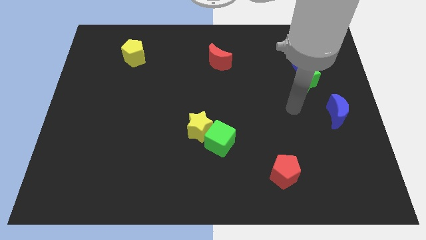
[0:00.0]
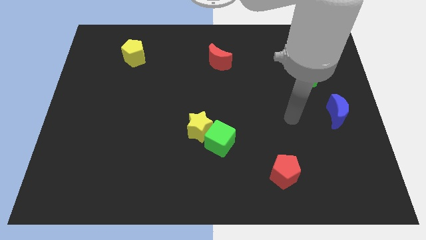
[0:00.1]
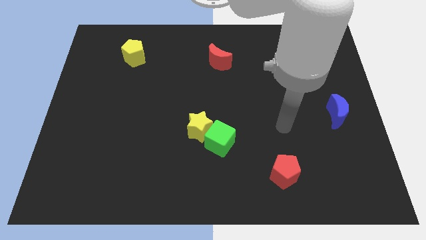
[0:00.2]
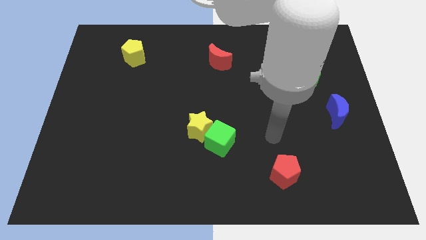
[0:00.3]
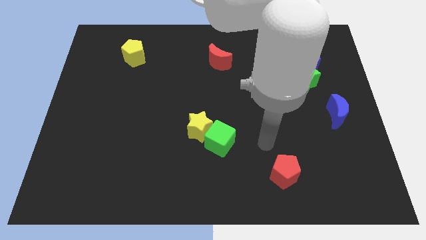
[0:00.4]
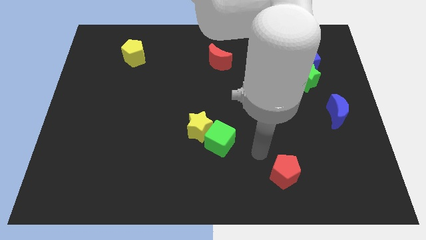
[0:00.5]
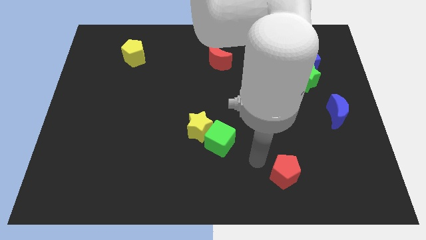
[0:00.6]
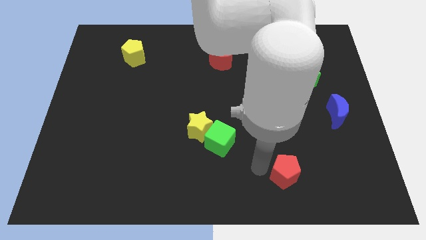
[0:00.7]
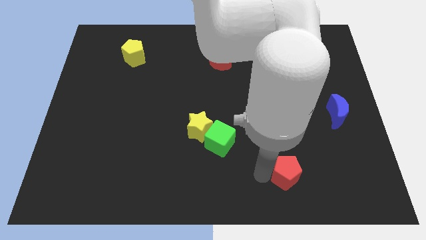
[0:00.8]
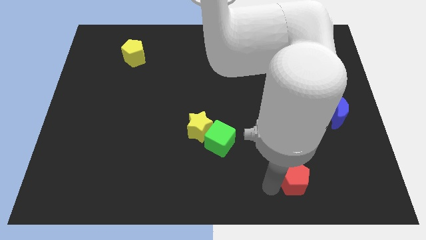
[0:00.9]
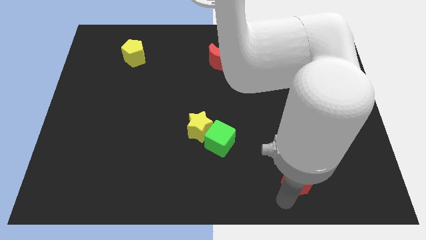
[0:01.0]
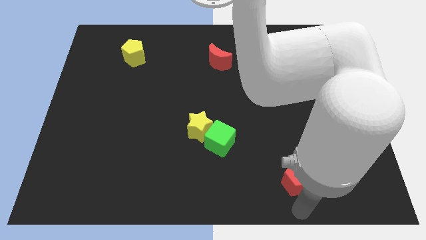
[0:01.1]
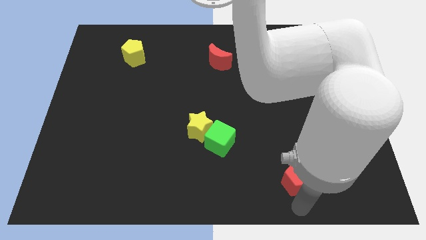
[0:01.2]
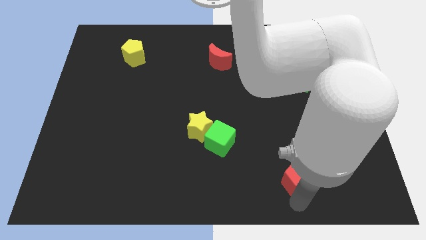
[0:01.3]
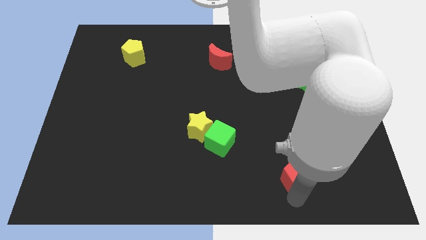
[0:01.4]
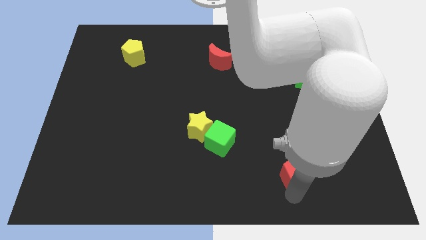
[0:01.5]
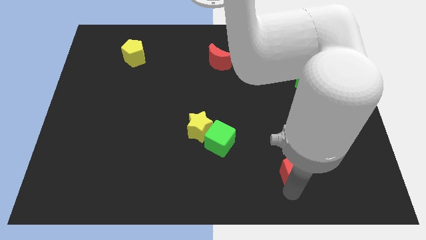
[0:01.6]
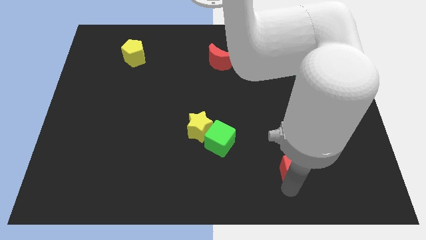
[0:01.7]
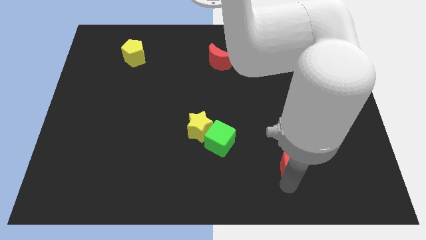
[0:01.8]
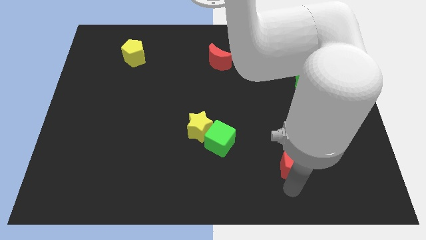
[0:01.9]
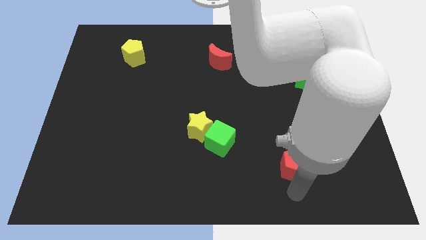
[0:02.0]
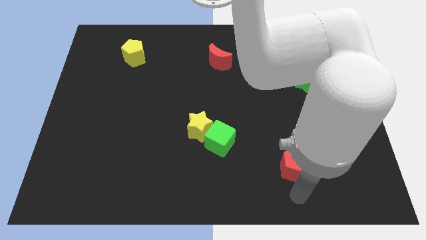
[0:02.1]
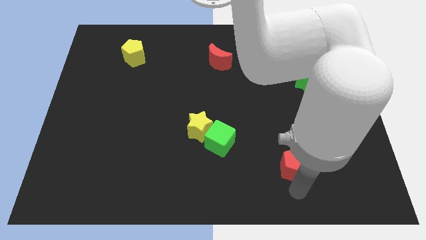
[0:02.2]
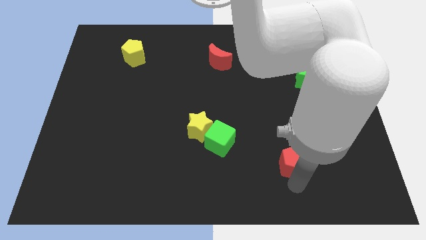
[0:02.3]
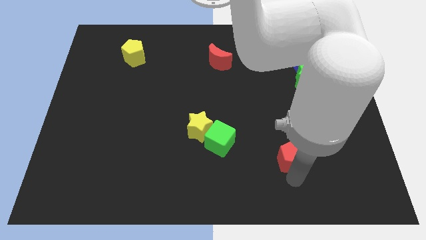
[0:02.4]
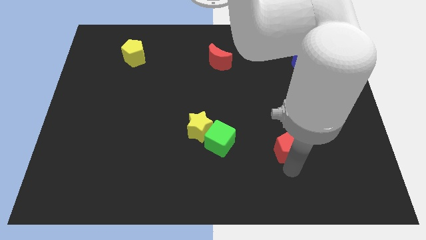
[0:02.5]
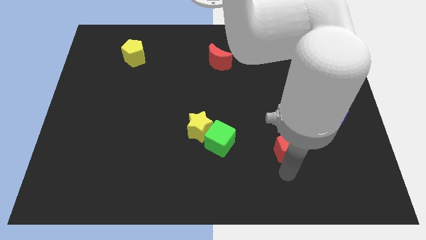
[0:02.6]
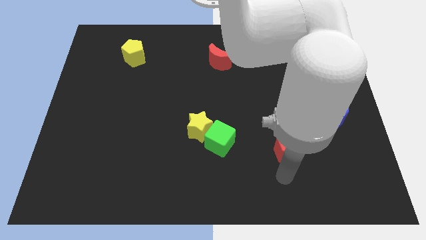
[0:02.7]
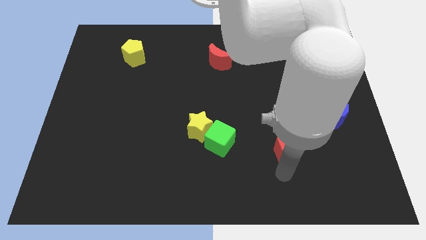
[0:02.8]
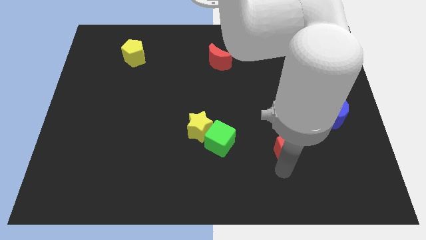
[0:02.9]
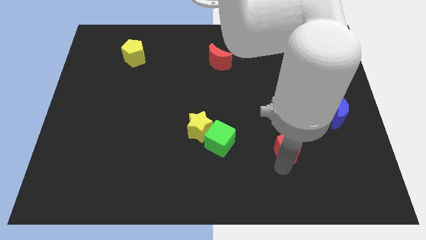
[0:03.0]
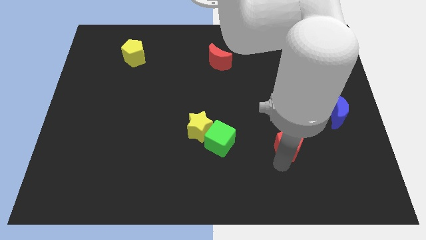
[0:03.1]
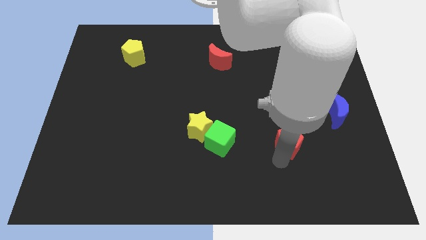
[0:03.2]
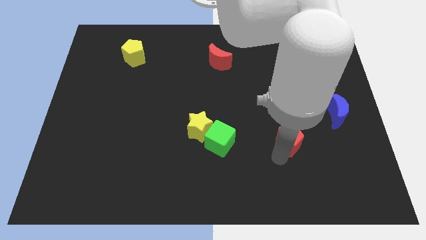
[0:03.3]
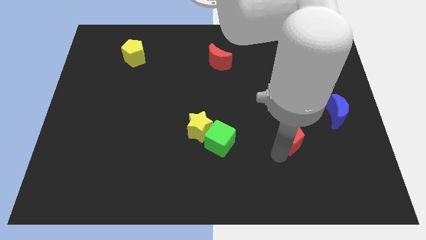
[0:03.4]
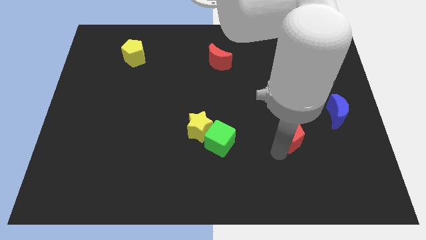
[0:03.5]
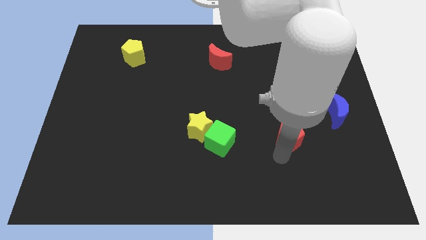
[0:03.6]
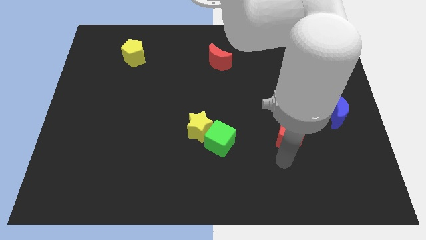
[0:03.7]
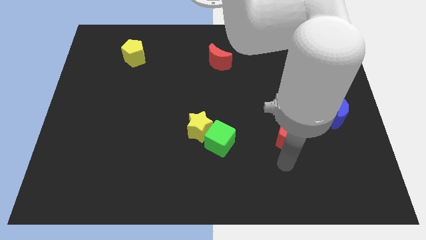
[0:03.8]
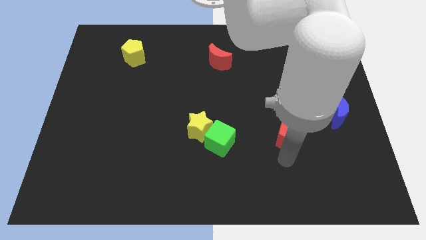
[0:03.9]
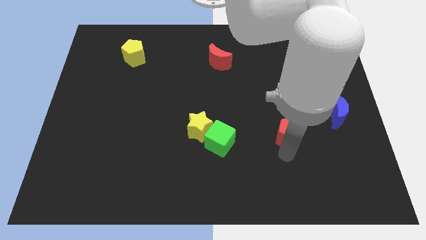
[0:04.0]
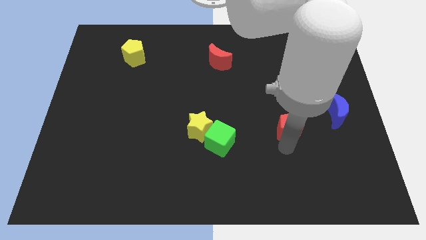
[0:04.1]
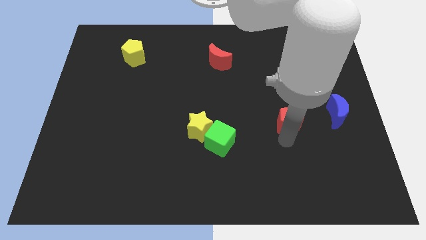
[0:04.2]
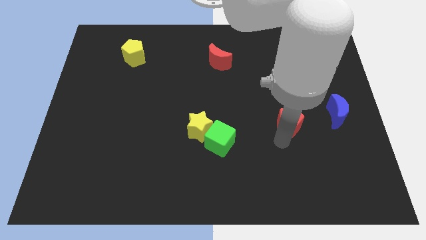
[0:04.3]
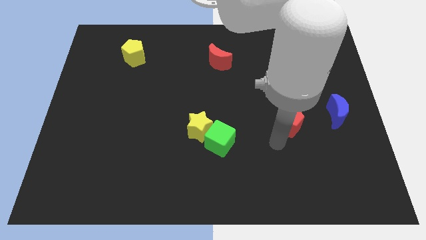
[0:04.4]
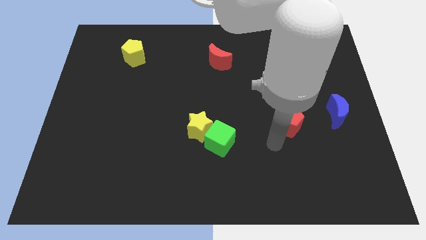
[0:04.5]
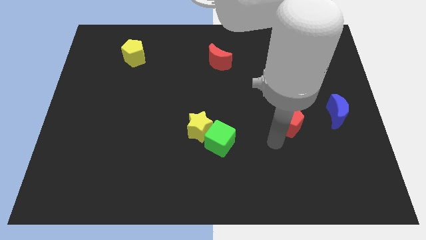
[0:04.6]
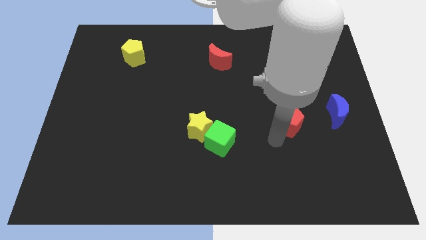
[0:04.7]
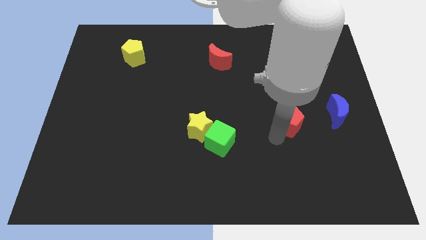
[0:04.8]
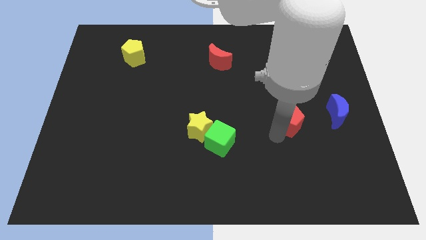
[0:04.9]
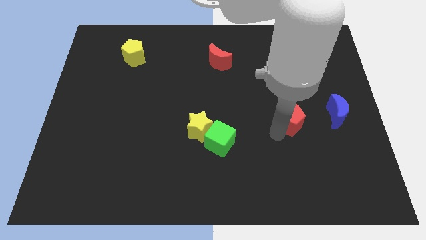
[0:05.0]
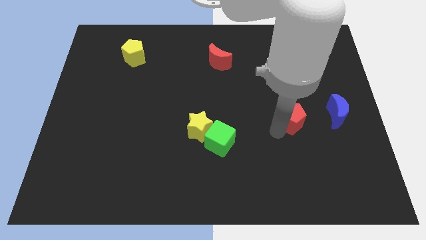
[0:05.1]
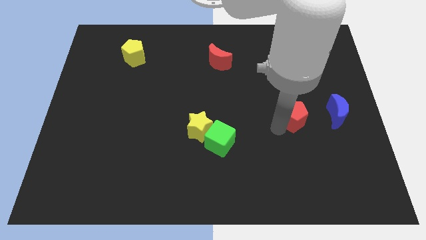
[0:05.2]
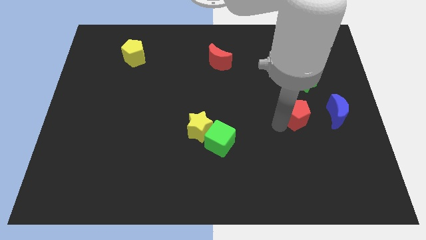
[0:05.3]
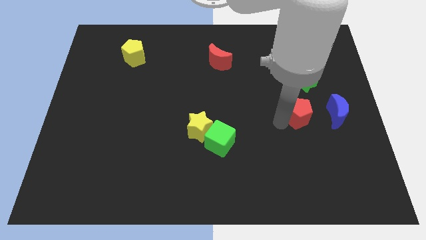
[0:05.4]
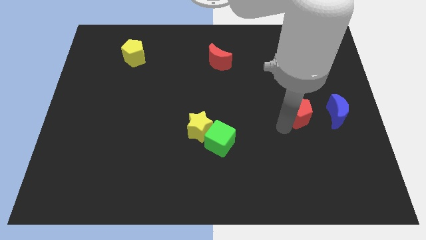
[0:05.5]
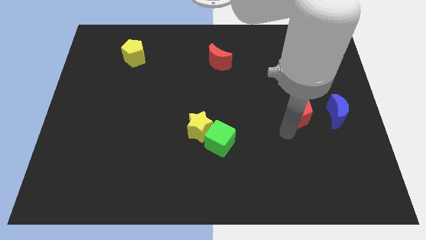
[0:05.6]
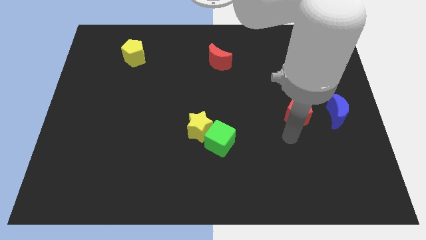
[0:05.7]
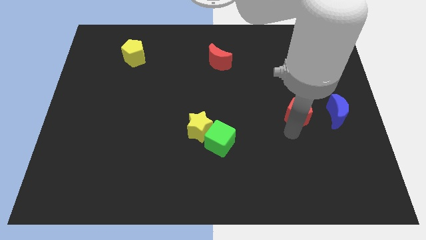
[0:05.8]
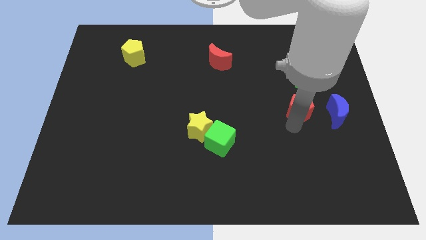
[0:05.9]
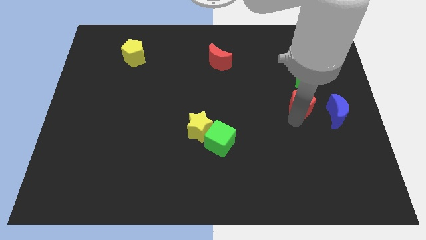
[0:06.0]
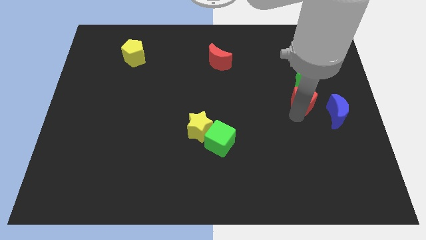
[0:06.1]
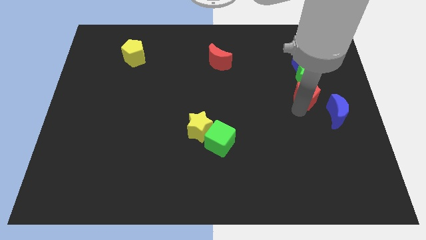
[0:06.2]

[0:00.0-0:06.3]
push the red pentagon close to the green star

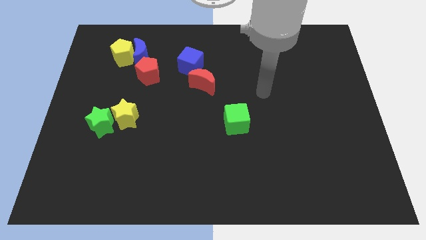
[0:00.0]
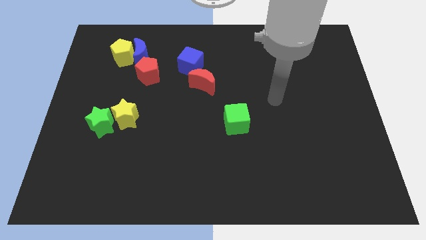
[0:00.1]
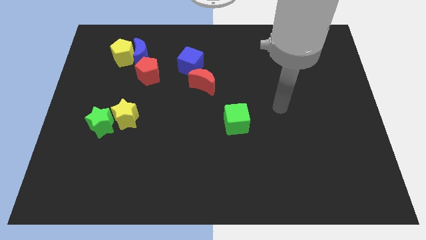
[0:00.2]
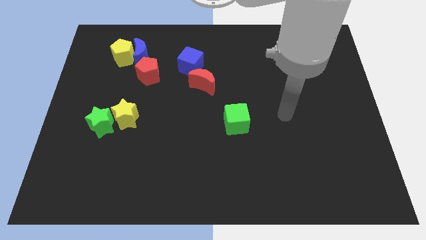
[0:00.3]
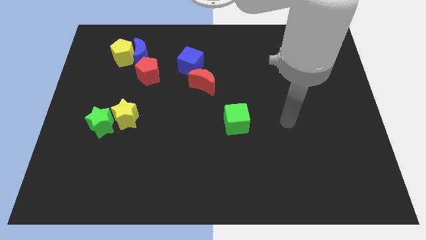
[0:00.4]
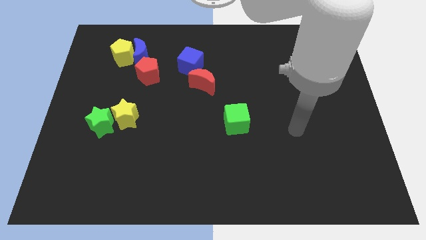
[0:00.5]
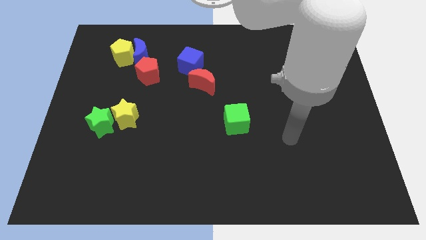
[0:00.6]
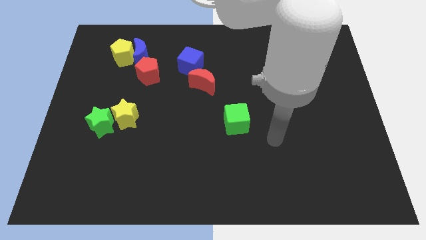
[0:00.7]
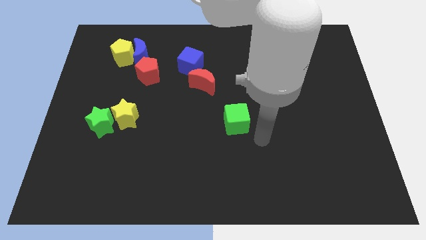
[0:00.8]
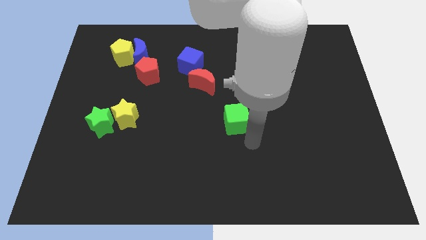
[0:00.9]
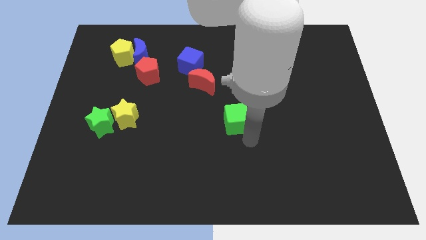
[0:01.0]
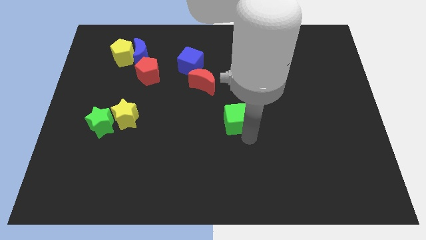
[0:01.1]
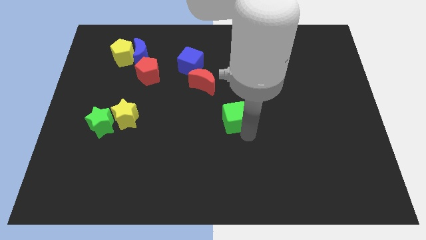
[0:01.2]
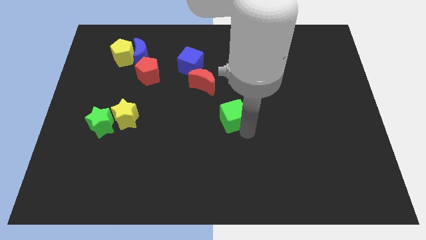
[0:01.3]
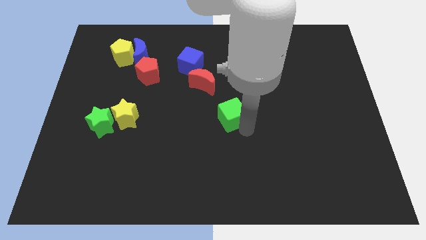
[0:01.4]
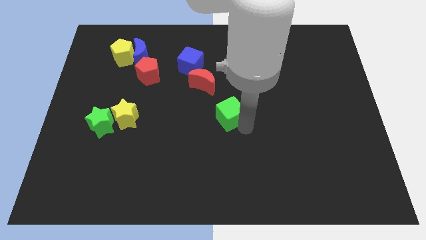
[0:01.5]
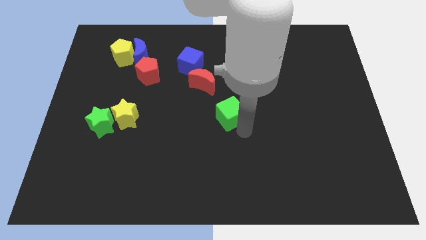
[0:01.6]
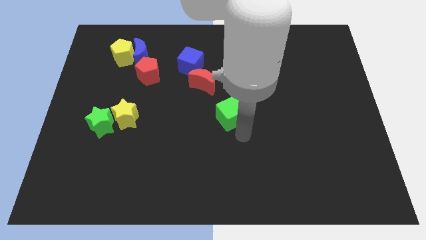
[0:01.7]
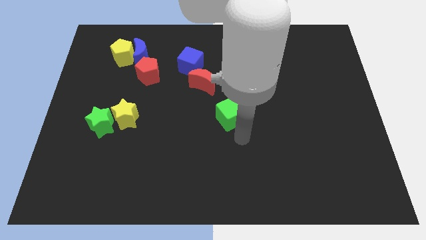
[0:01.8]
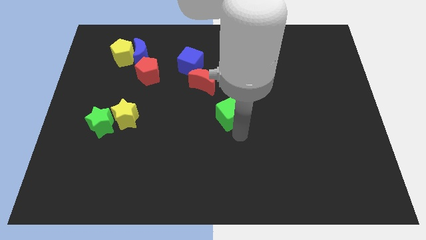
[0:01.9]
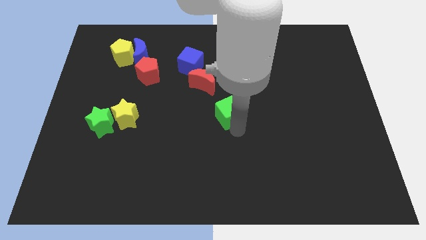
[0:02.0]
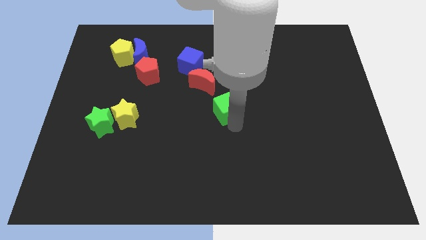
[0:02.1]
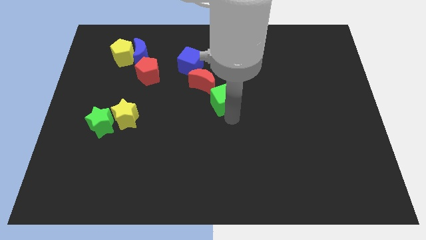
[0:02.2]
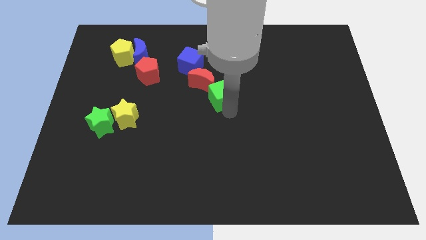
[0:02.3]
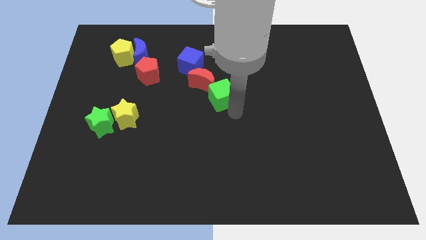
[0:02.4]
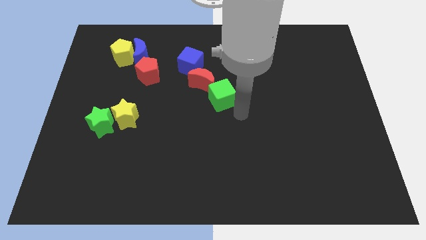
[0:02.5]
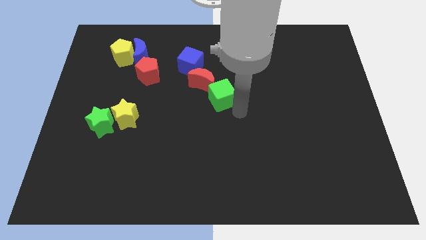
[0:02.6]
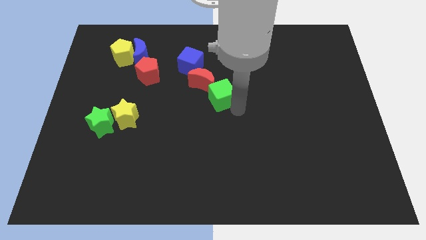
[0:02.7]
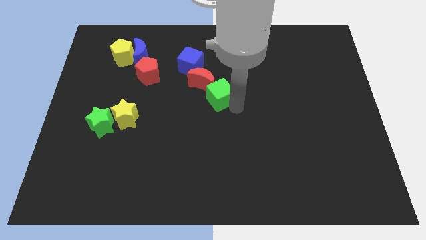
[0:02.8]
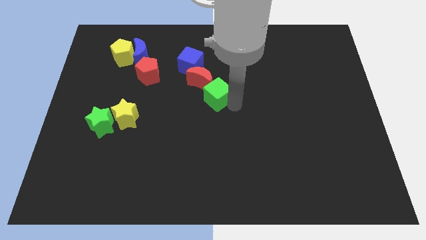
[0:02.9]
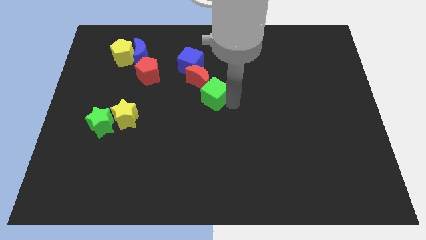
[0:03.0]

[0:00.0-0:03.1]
push the green cube towards the red moon
